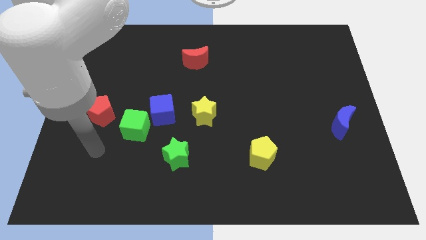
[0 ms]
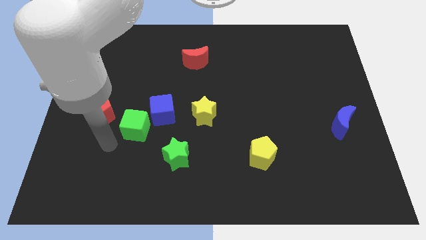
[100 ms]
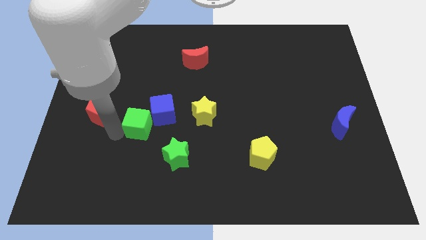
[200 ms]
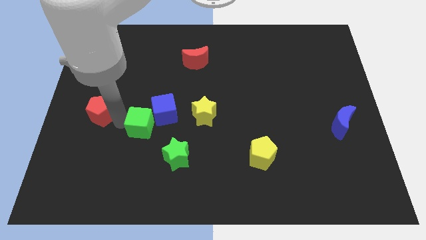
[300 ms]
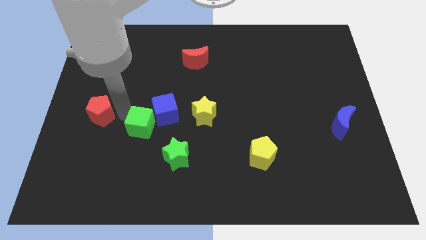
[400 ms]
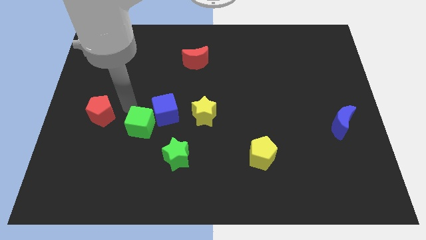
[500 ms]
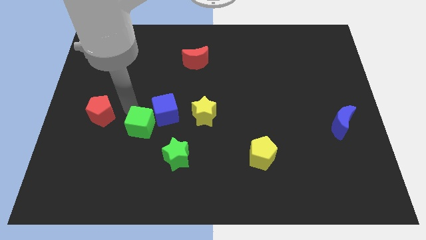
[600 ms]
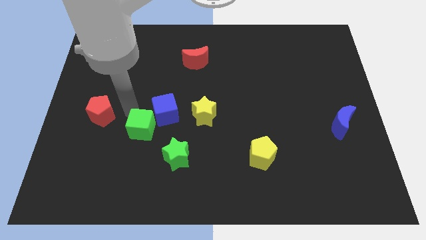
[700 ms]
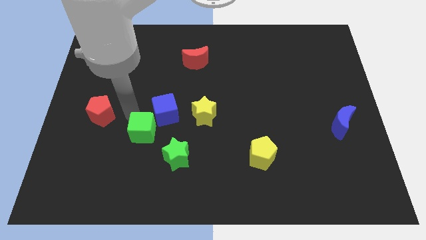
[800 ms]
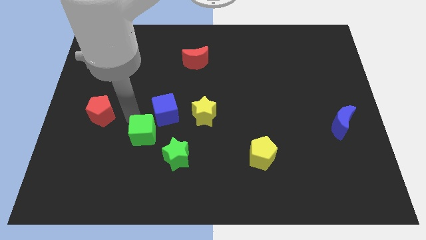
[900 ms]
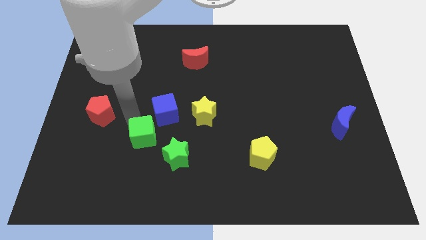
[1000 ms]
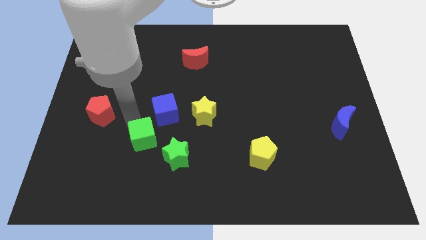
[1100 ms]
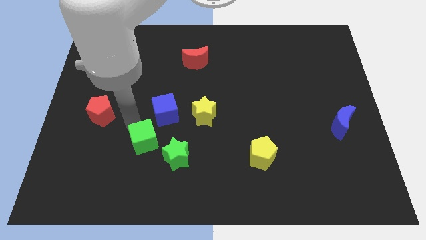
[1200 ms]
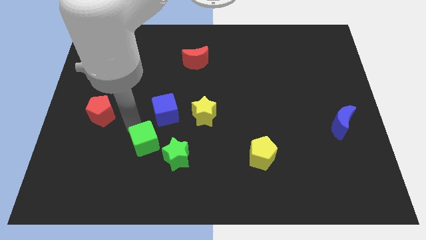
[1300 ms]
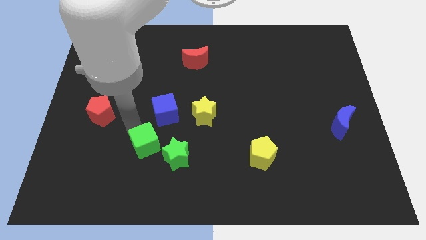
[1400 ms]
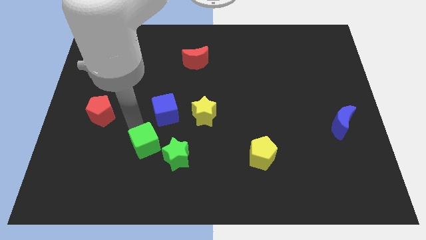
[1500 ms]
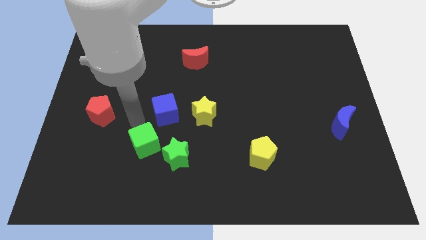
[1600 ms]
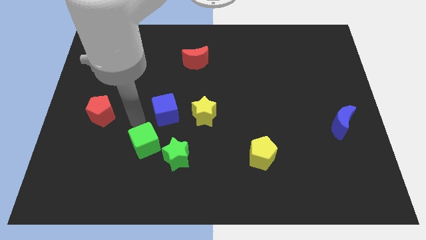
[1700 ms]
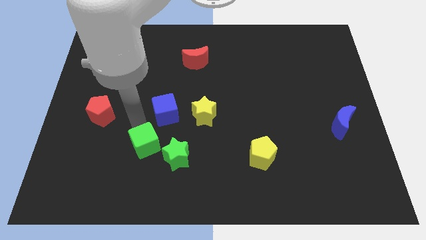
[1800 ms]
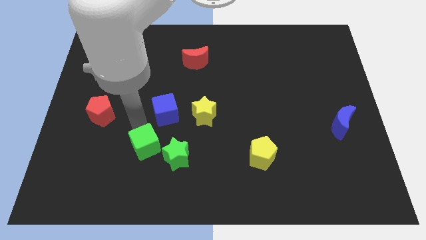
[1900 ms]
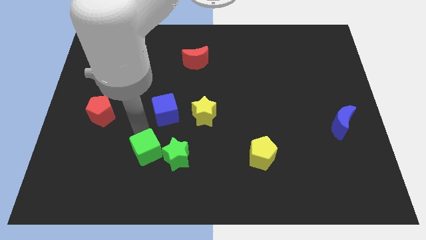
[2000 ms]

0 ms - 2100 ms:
move the green cube away from the blue cube and red pentagon

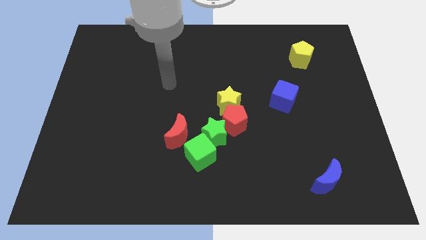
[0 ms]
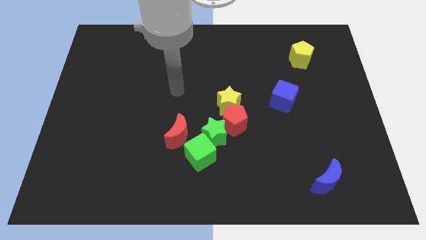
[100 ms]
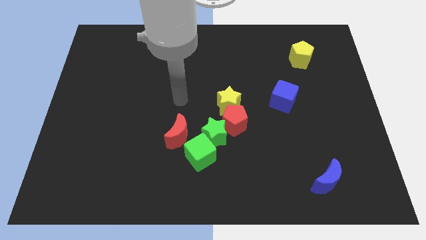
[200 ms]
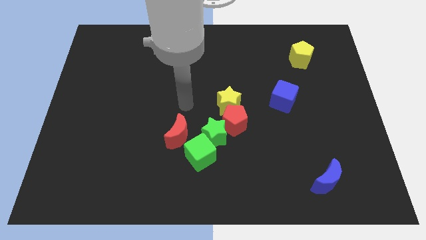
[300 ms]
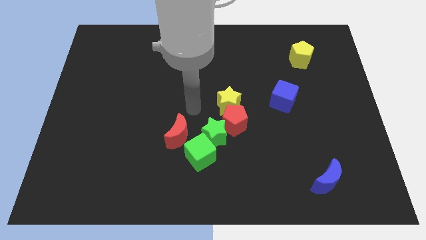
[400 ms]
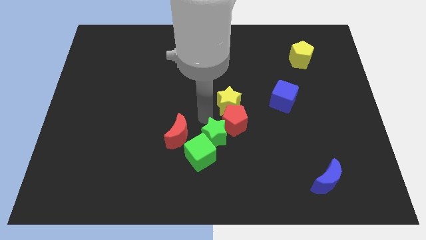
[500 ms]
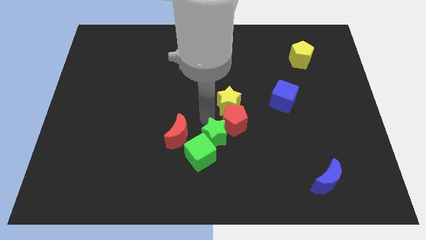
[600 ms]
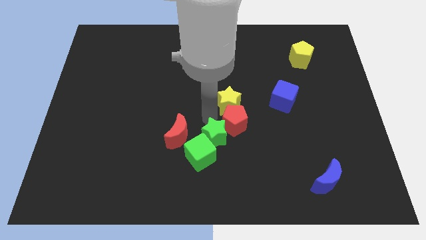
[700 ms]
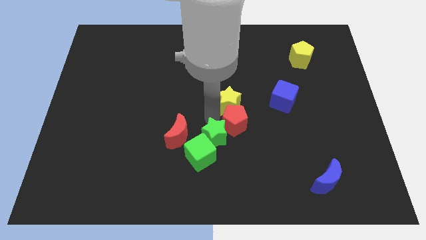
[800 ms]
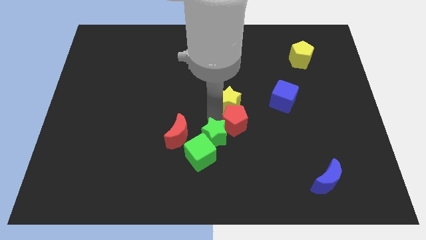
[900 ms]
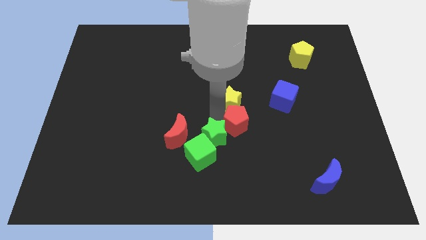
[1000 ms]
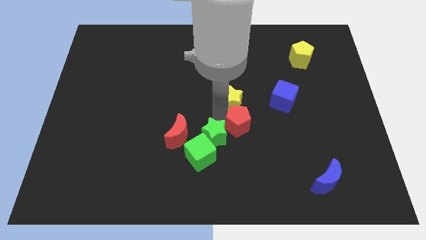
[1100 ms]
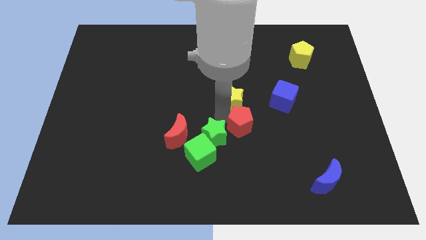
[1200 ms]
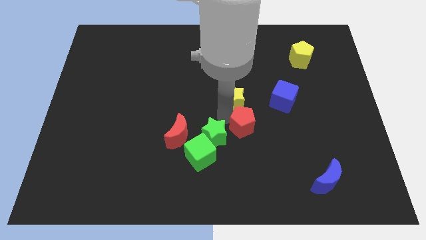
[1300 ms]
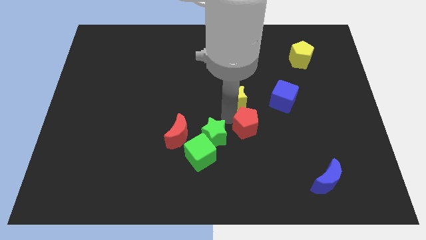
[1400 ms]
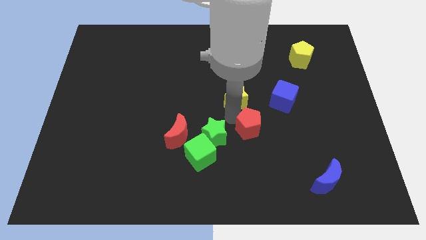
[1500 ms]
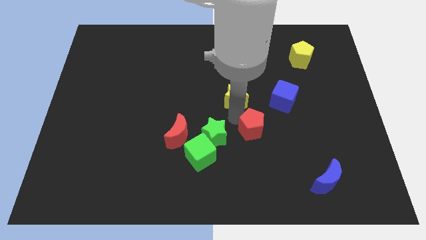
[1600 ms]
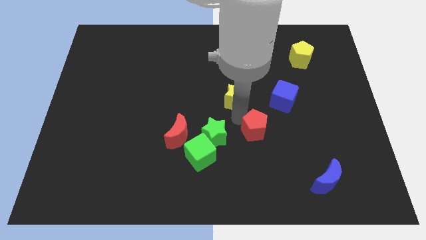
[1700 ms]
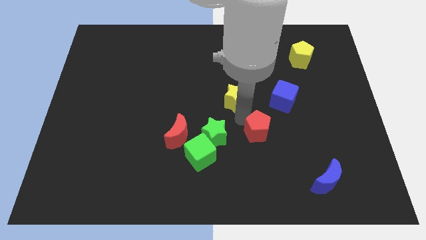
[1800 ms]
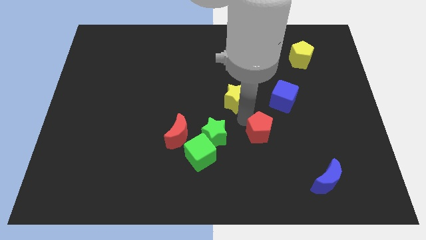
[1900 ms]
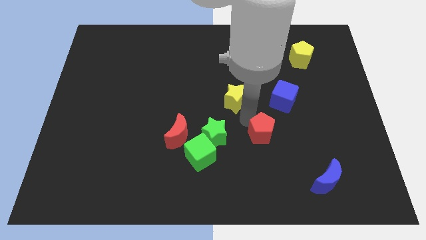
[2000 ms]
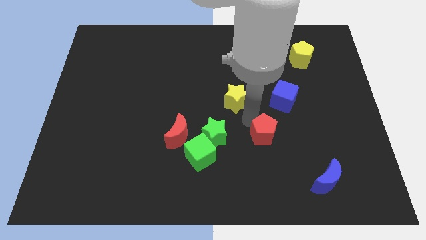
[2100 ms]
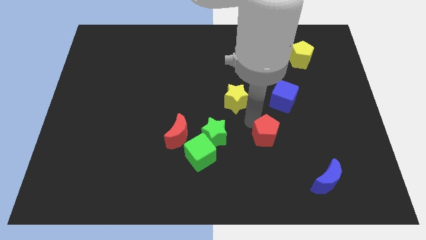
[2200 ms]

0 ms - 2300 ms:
separate the red pentagon from the yellow star and green star

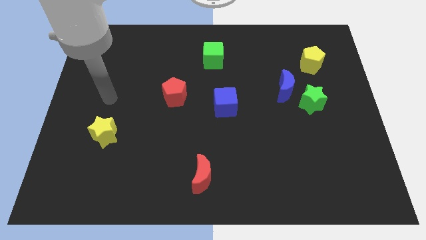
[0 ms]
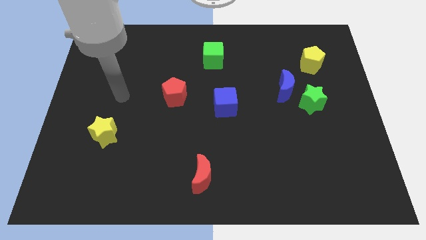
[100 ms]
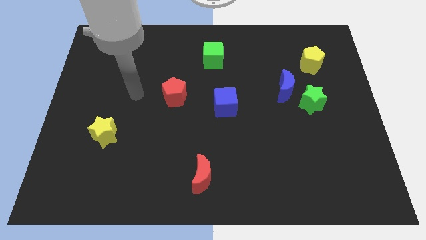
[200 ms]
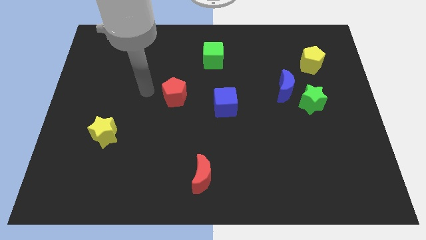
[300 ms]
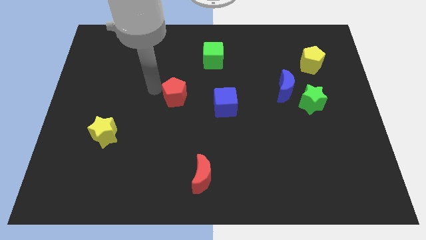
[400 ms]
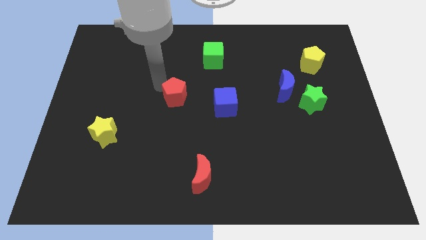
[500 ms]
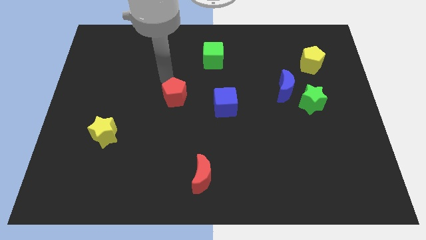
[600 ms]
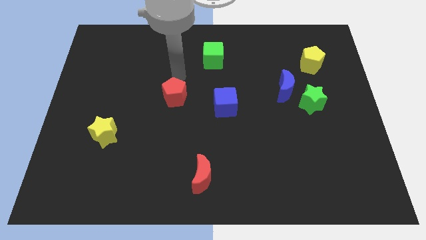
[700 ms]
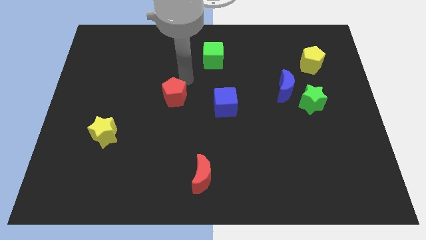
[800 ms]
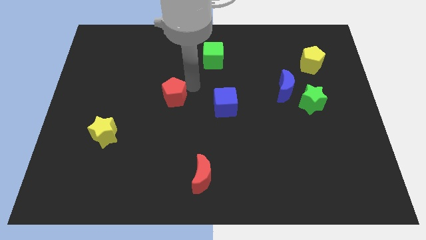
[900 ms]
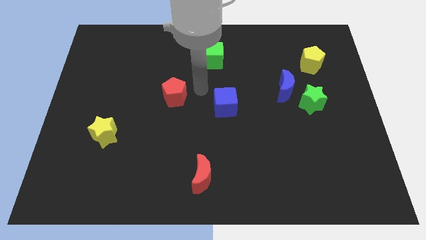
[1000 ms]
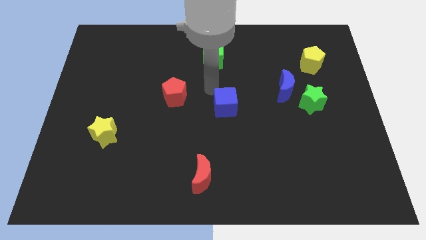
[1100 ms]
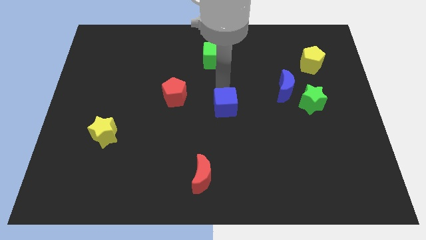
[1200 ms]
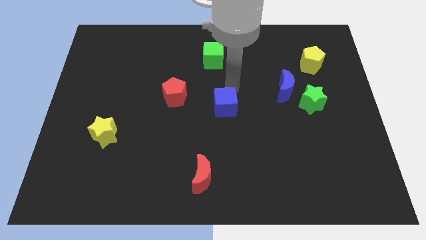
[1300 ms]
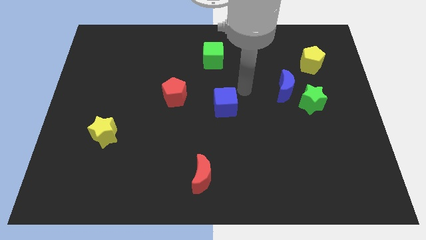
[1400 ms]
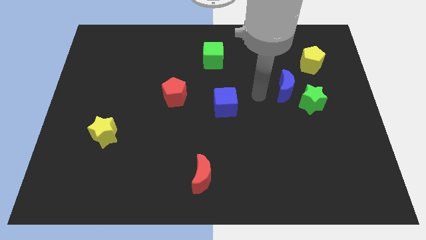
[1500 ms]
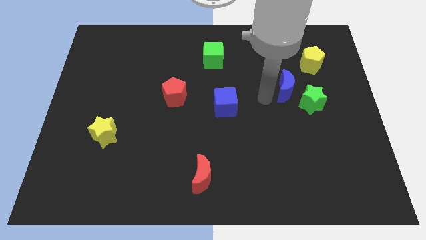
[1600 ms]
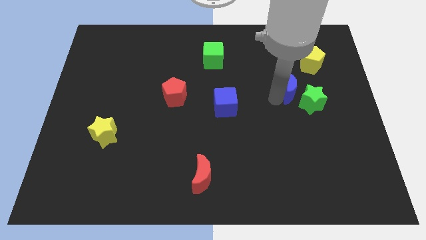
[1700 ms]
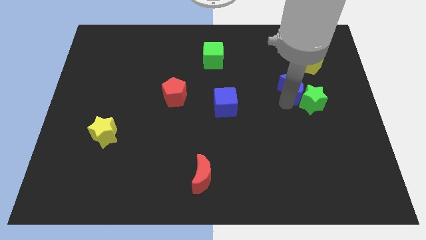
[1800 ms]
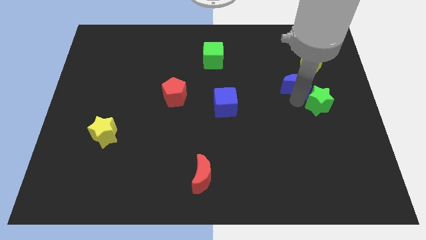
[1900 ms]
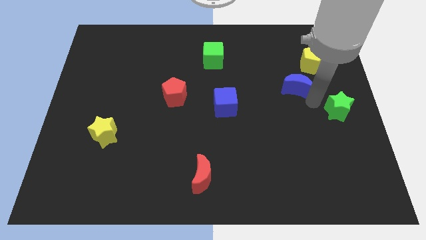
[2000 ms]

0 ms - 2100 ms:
separate the blue moon from the green star

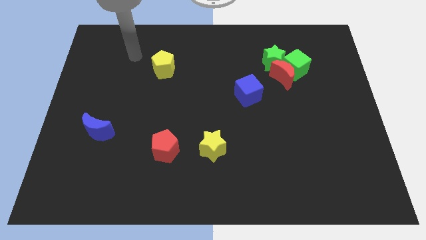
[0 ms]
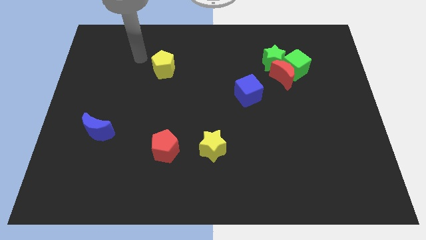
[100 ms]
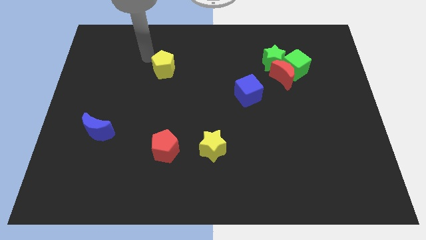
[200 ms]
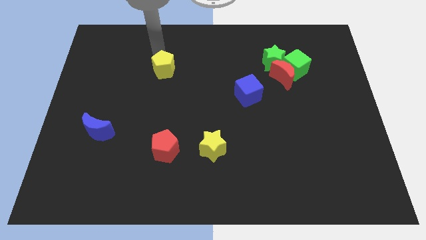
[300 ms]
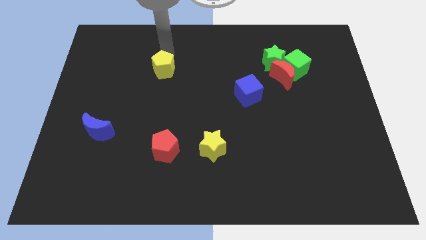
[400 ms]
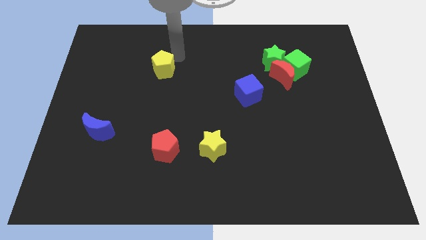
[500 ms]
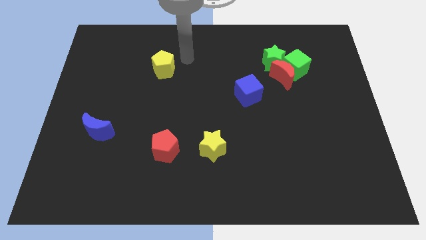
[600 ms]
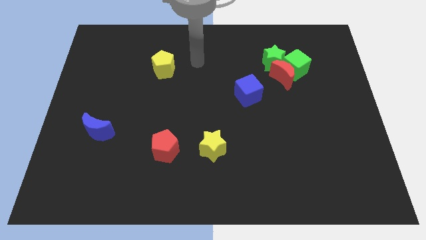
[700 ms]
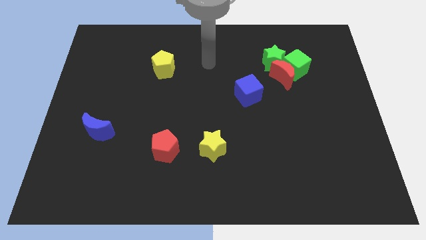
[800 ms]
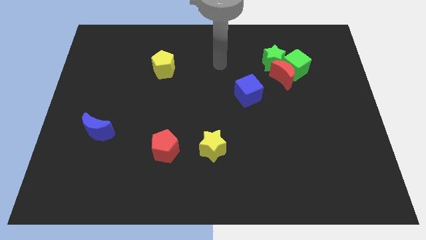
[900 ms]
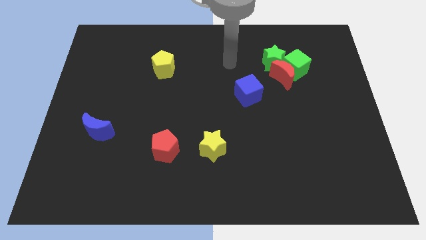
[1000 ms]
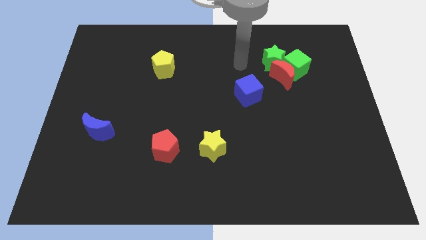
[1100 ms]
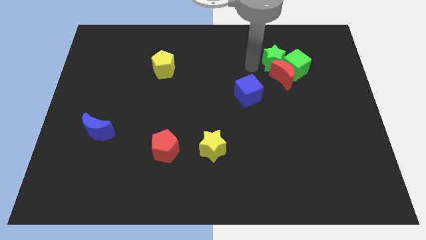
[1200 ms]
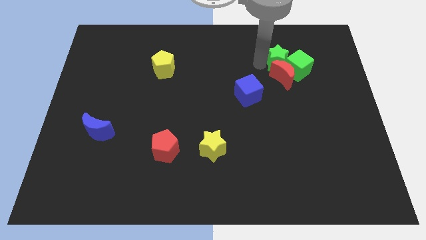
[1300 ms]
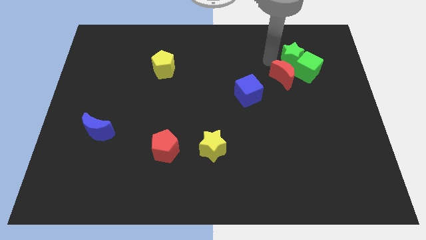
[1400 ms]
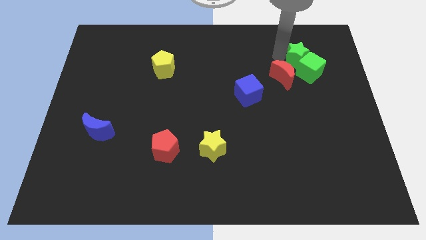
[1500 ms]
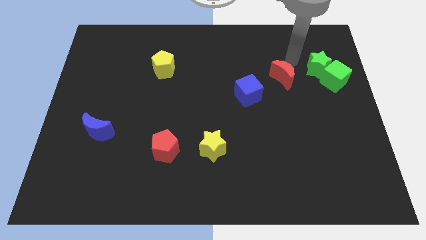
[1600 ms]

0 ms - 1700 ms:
move the red moon away from the green cube and green star

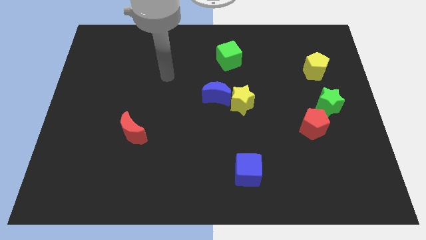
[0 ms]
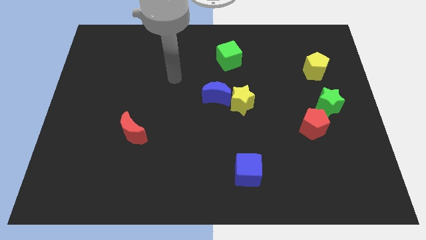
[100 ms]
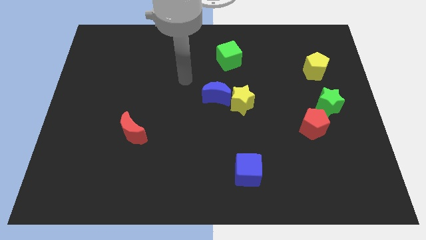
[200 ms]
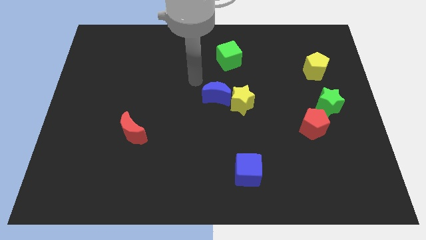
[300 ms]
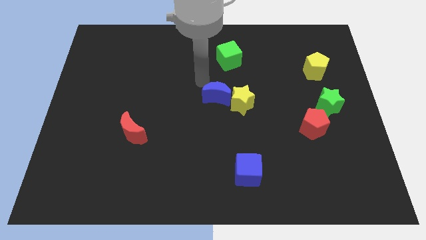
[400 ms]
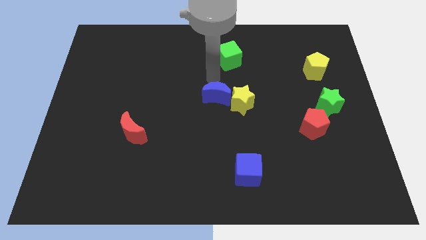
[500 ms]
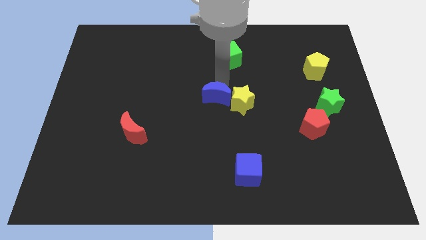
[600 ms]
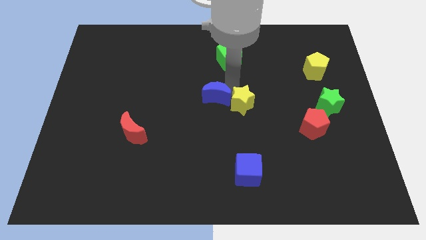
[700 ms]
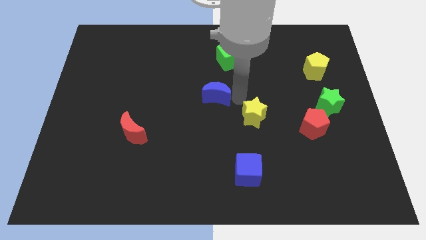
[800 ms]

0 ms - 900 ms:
pull the blue moon apart from the yellow star

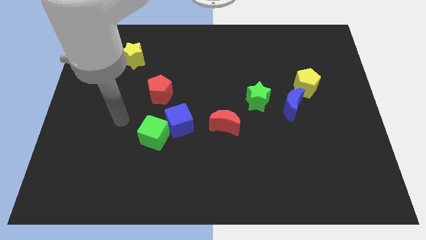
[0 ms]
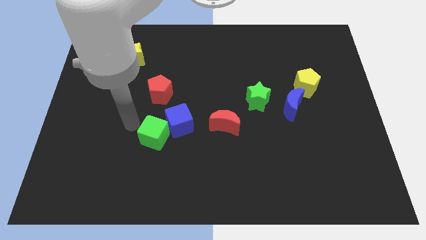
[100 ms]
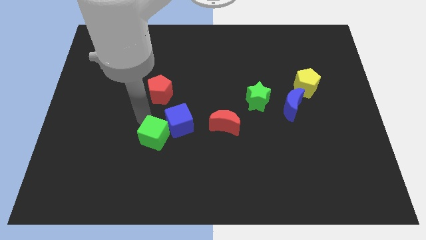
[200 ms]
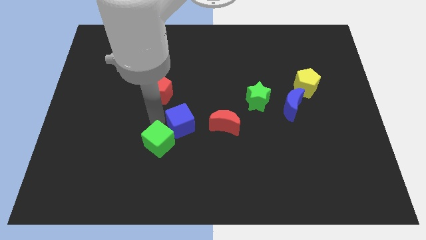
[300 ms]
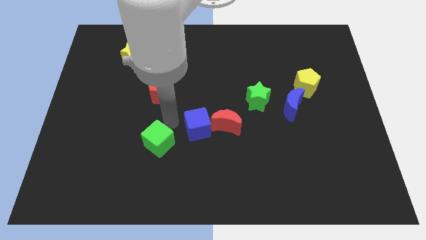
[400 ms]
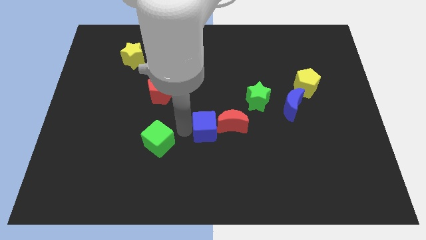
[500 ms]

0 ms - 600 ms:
separate the green cube from the blue cube
